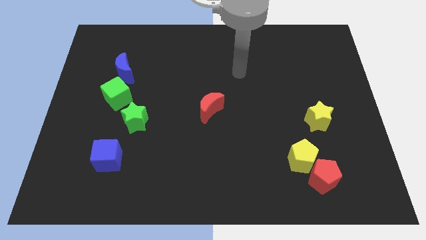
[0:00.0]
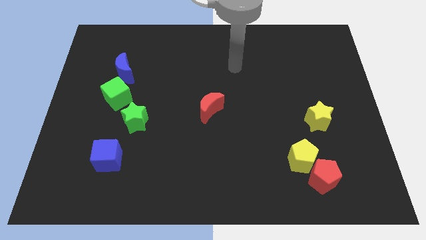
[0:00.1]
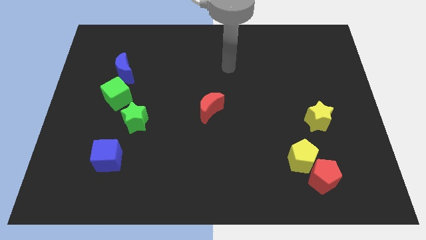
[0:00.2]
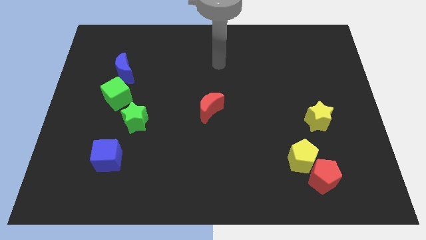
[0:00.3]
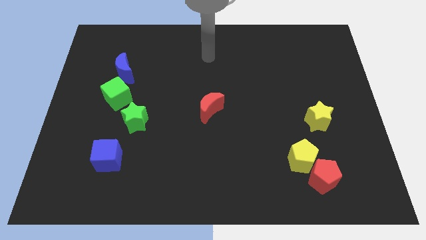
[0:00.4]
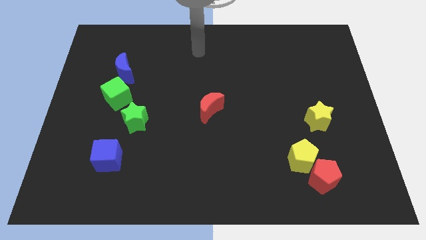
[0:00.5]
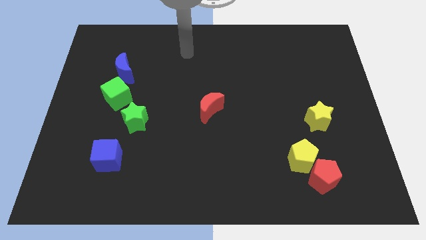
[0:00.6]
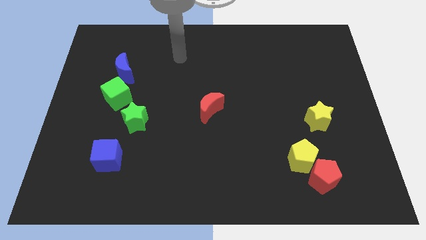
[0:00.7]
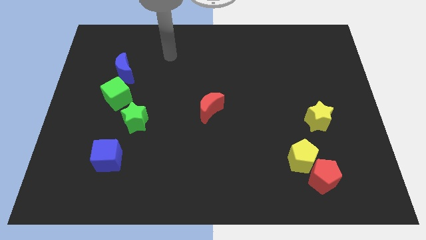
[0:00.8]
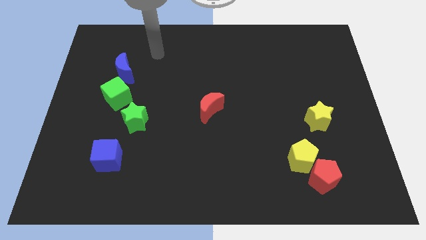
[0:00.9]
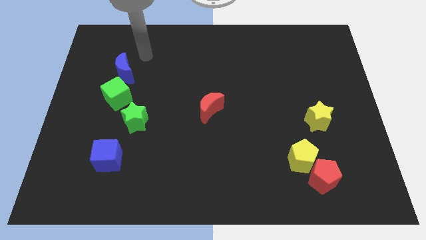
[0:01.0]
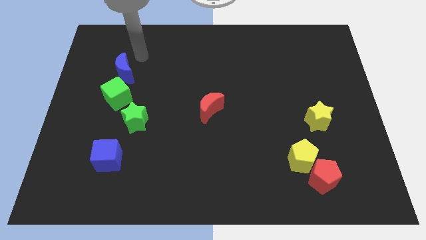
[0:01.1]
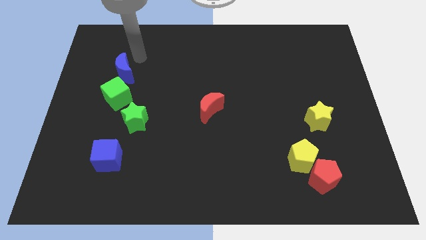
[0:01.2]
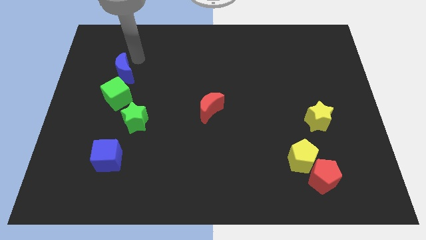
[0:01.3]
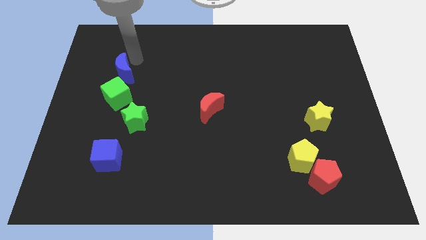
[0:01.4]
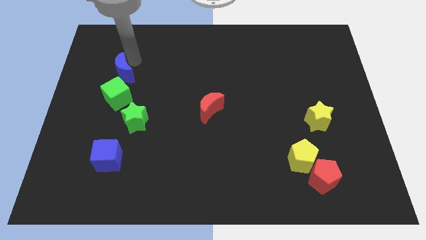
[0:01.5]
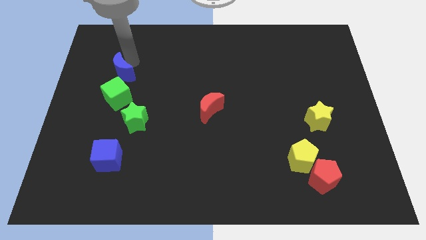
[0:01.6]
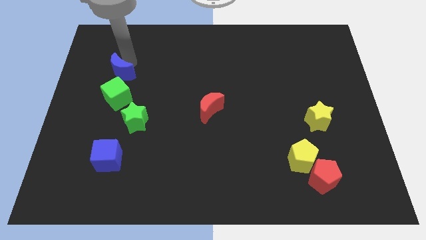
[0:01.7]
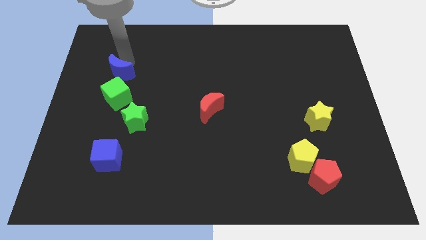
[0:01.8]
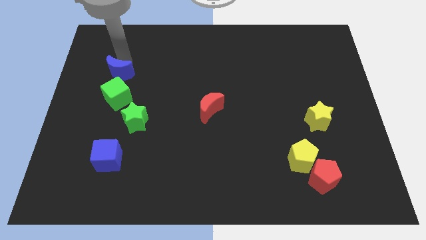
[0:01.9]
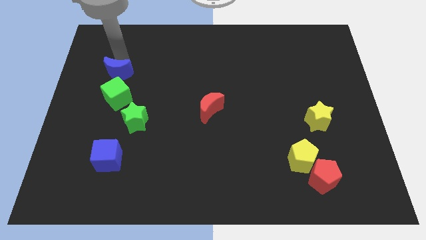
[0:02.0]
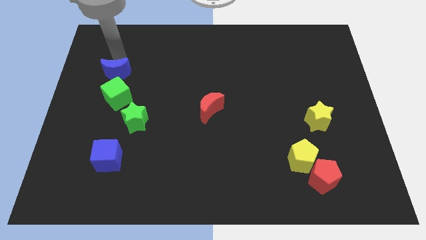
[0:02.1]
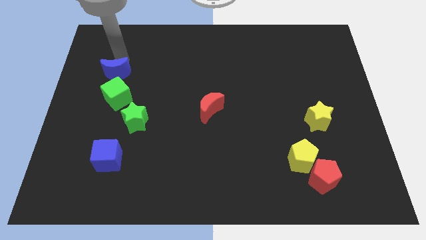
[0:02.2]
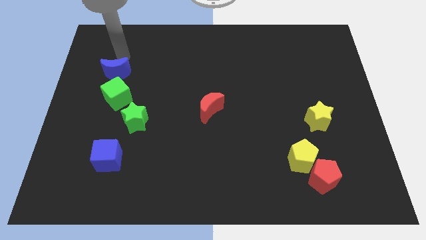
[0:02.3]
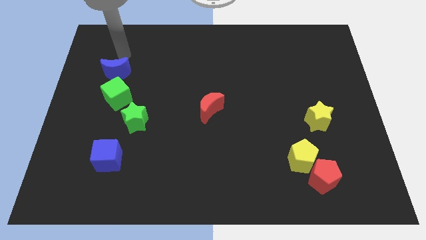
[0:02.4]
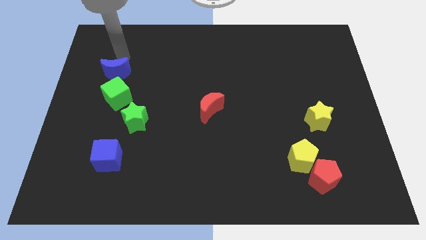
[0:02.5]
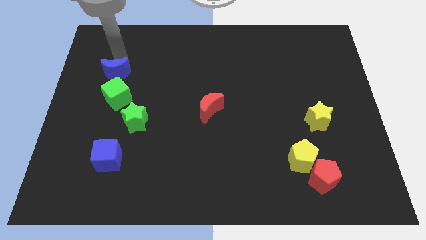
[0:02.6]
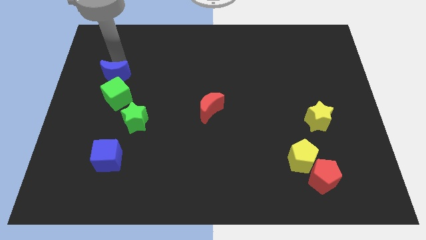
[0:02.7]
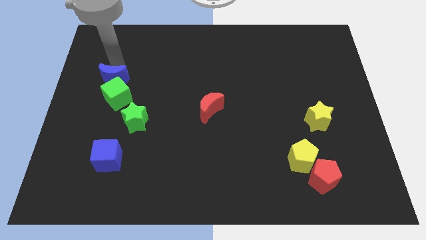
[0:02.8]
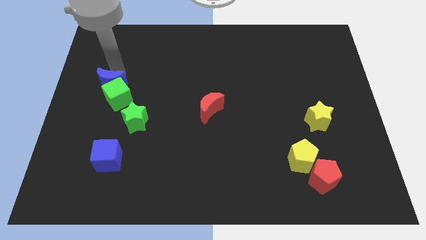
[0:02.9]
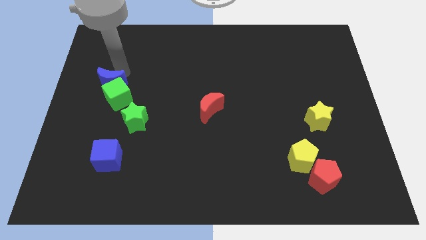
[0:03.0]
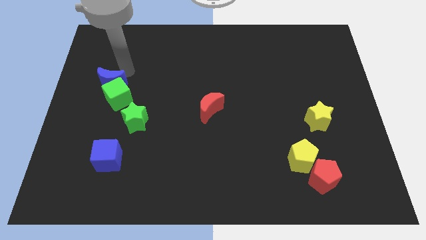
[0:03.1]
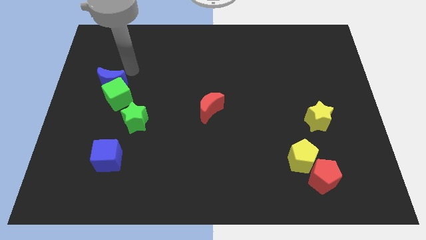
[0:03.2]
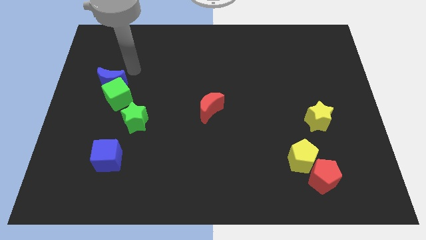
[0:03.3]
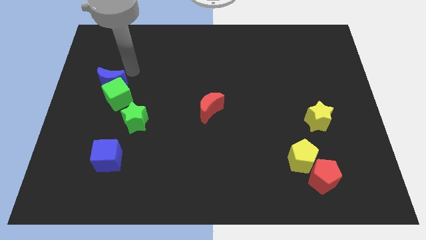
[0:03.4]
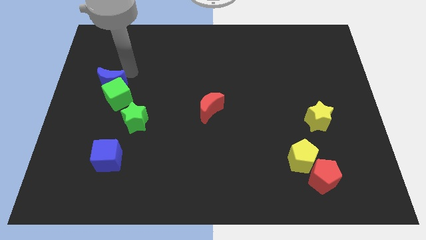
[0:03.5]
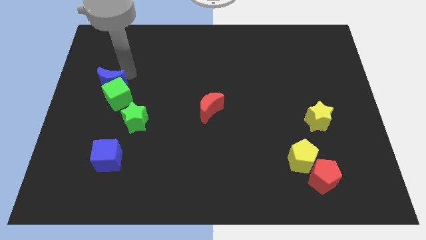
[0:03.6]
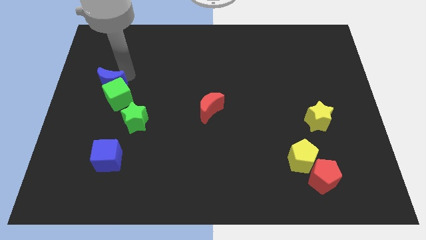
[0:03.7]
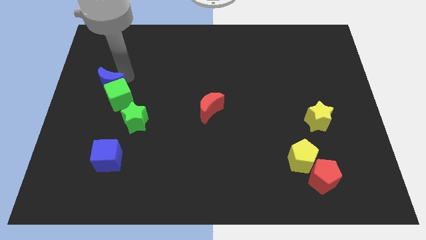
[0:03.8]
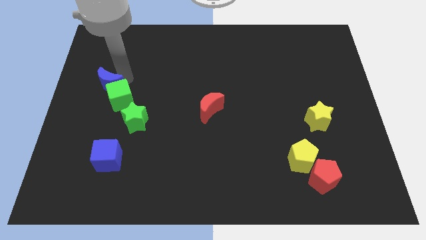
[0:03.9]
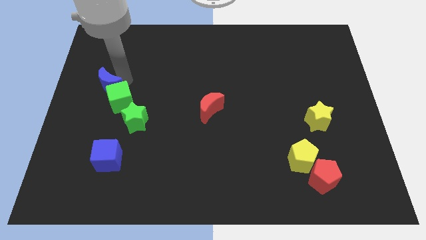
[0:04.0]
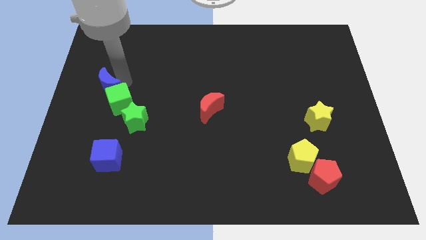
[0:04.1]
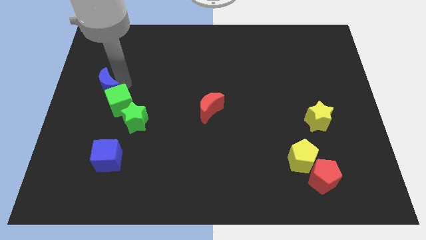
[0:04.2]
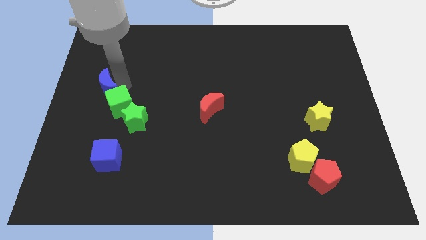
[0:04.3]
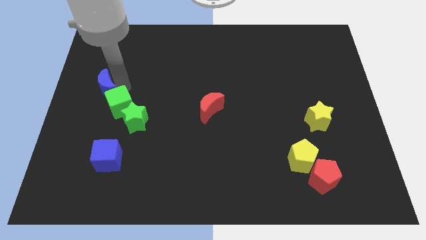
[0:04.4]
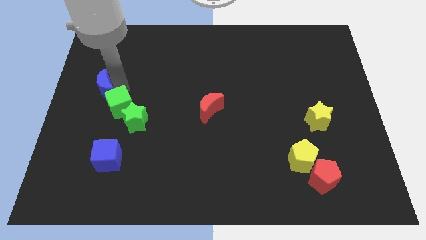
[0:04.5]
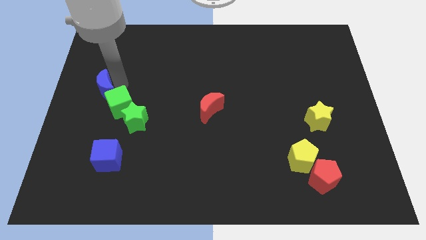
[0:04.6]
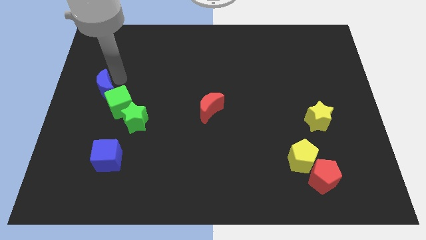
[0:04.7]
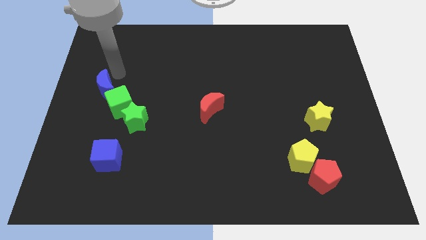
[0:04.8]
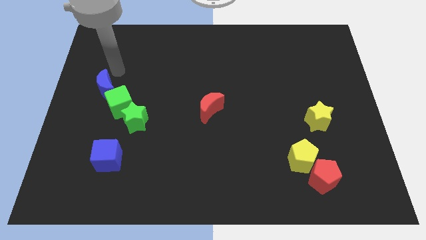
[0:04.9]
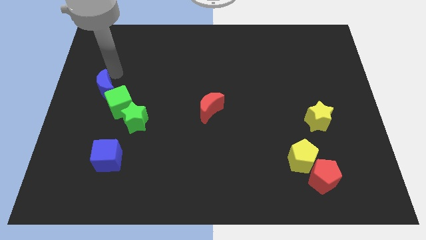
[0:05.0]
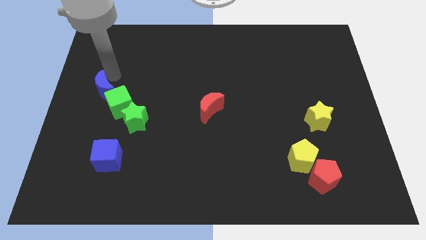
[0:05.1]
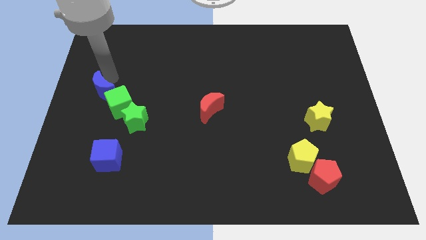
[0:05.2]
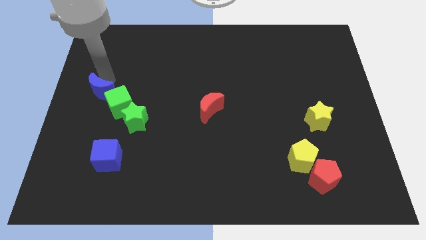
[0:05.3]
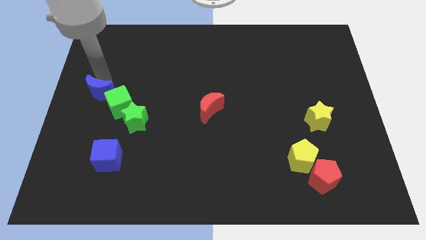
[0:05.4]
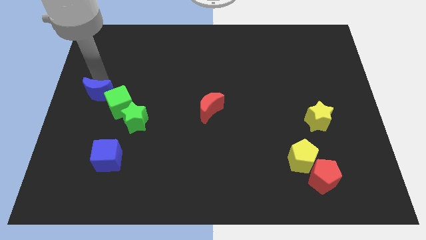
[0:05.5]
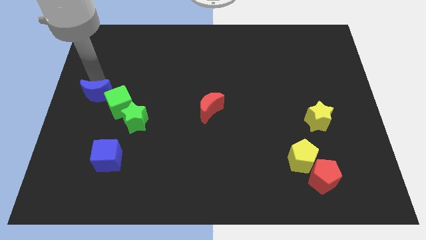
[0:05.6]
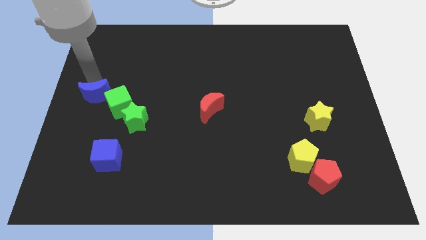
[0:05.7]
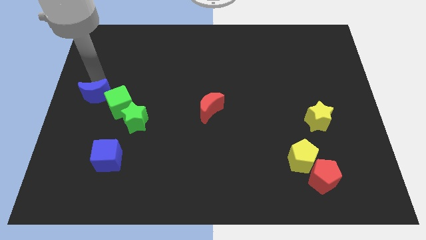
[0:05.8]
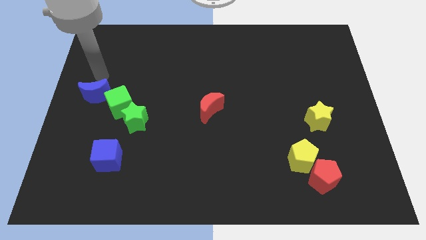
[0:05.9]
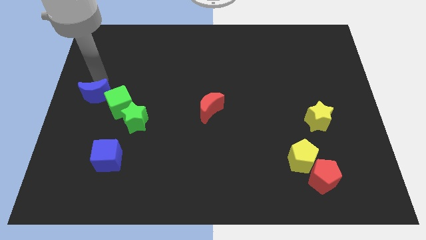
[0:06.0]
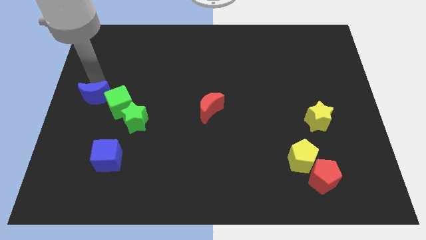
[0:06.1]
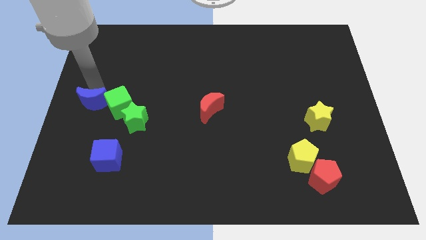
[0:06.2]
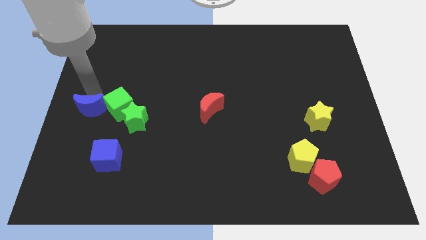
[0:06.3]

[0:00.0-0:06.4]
slide the blue moon left of the green star
